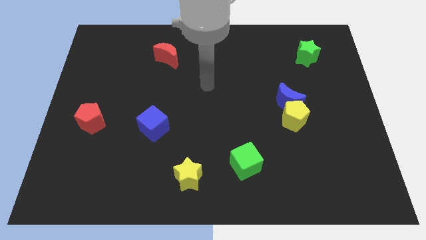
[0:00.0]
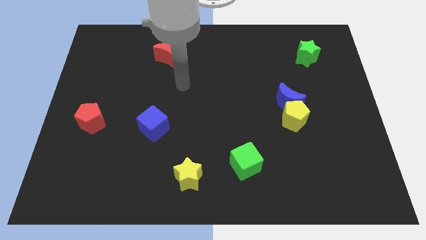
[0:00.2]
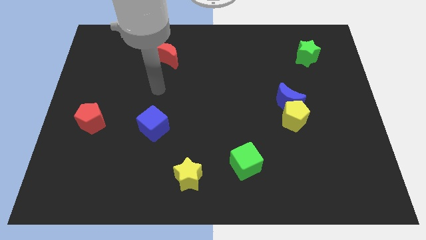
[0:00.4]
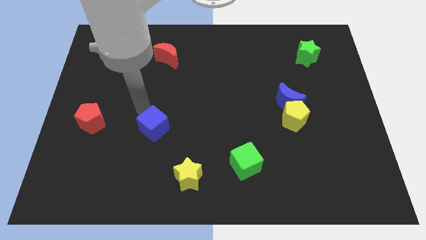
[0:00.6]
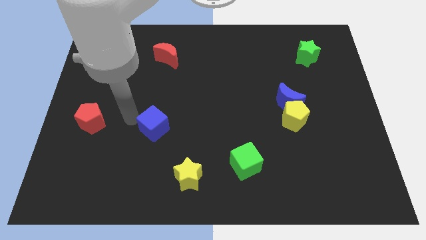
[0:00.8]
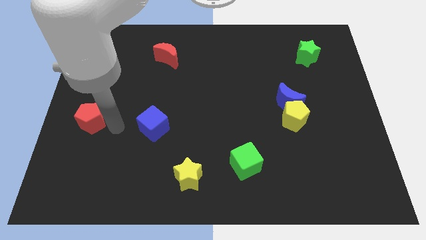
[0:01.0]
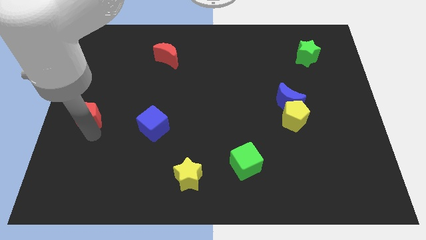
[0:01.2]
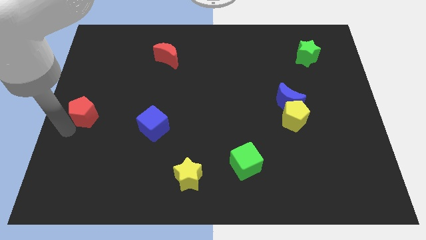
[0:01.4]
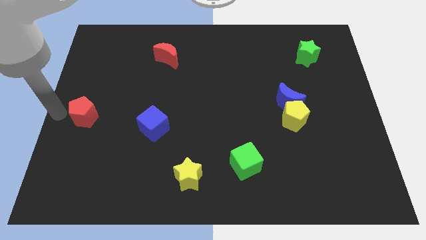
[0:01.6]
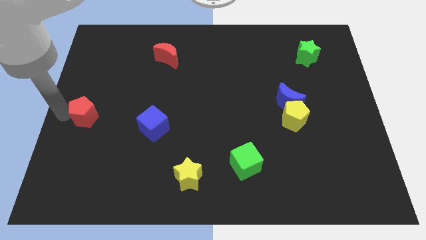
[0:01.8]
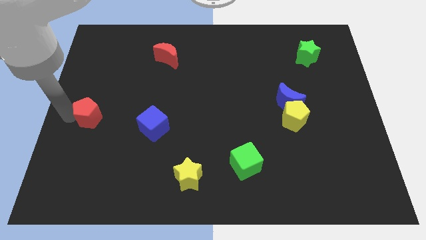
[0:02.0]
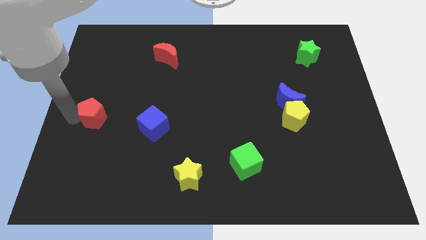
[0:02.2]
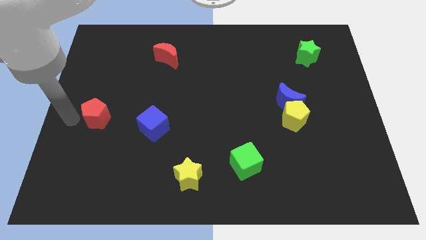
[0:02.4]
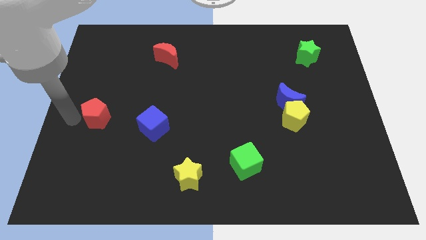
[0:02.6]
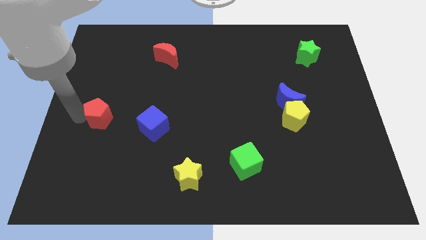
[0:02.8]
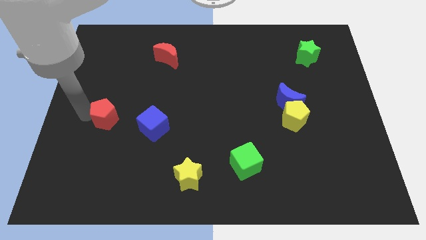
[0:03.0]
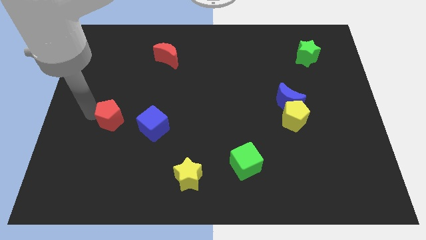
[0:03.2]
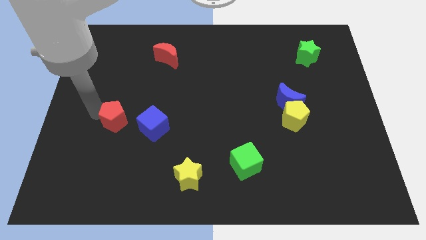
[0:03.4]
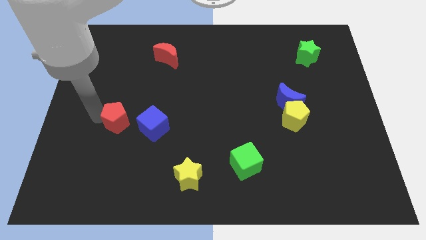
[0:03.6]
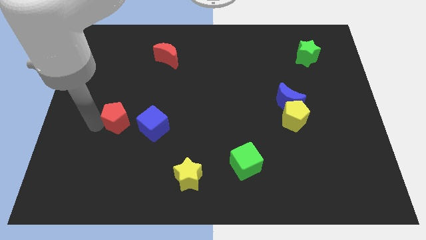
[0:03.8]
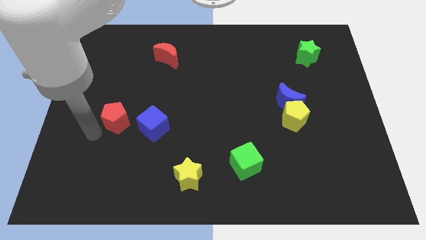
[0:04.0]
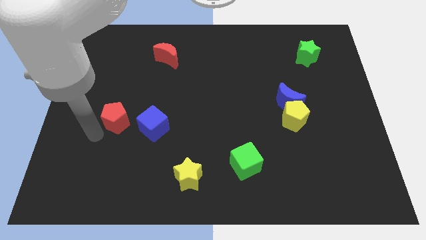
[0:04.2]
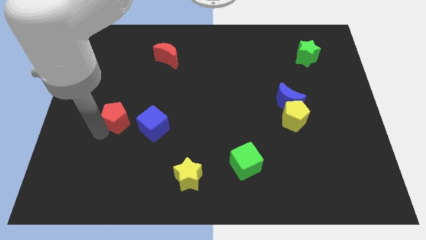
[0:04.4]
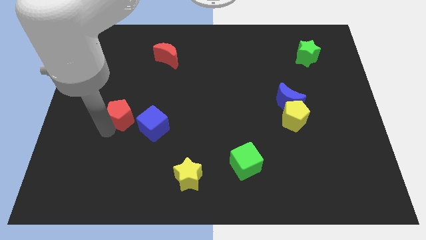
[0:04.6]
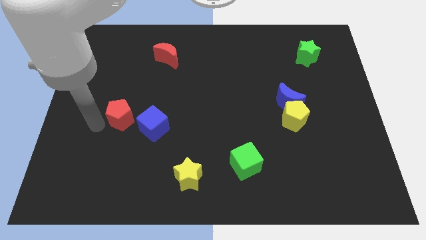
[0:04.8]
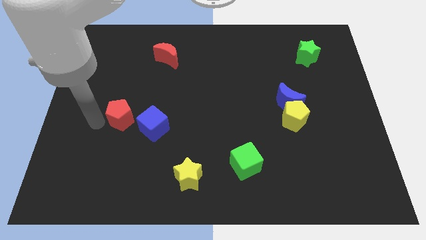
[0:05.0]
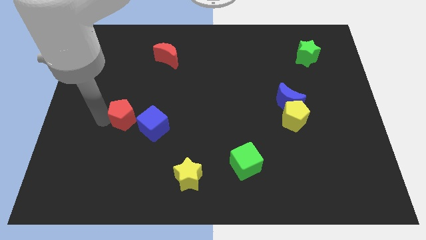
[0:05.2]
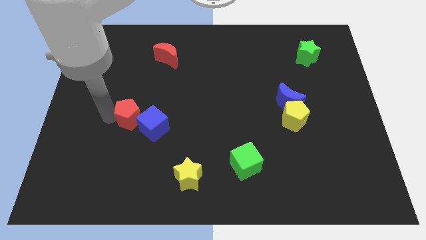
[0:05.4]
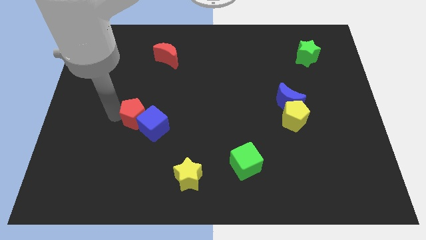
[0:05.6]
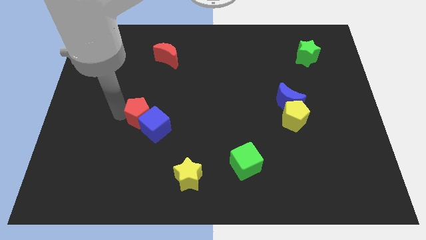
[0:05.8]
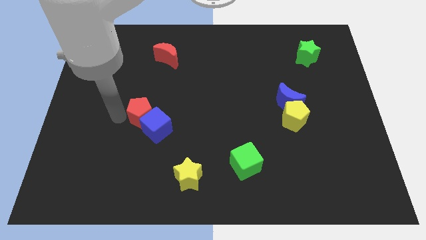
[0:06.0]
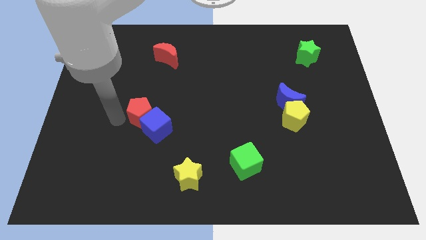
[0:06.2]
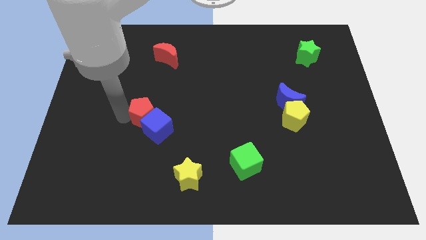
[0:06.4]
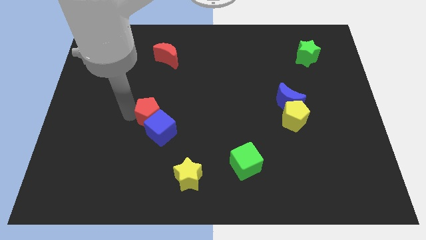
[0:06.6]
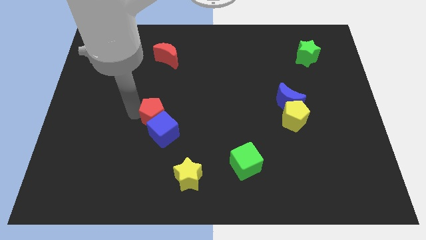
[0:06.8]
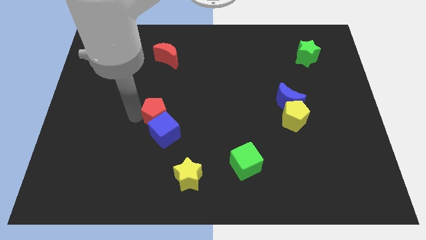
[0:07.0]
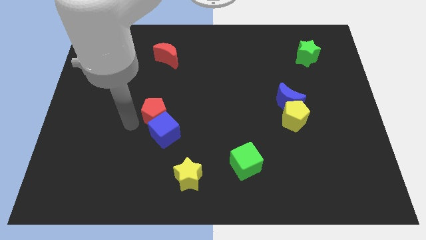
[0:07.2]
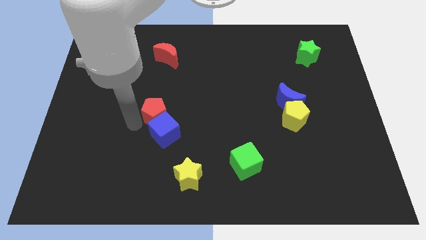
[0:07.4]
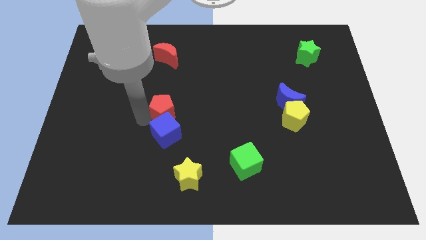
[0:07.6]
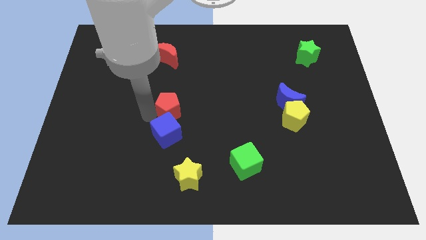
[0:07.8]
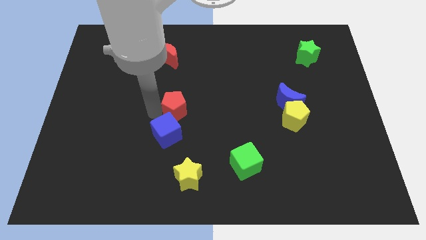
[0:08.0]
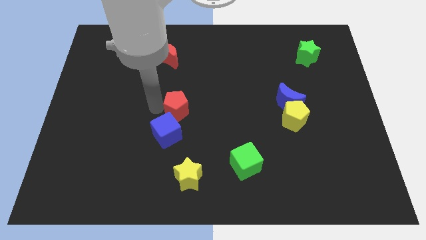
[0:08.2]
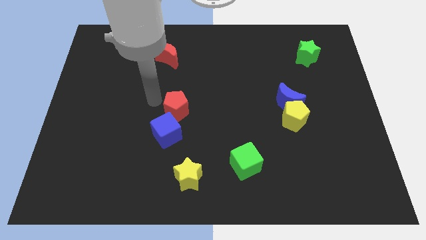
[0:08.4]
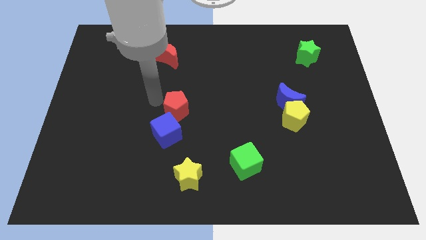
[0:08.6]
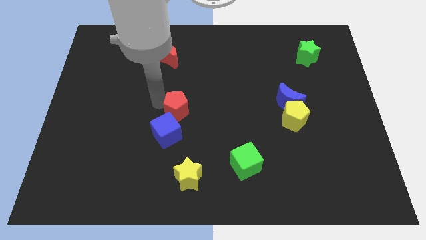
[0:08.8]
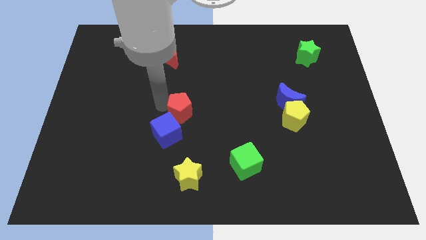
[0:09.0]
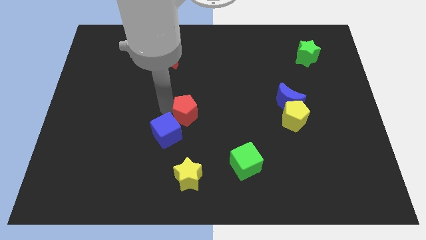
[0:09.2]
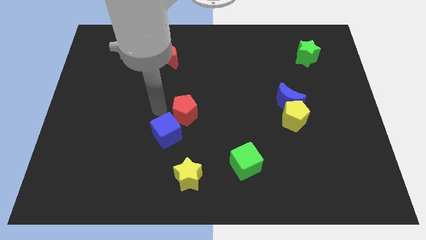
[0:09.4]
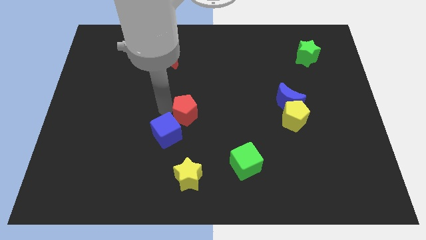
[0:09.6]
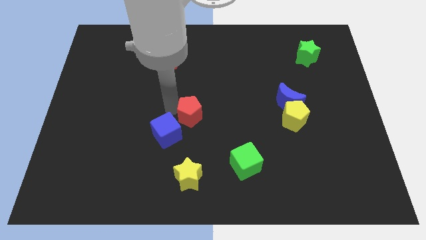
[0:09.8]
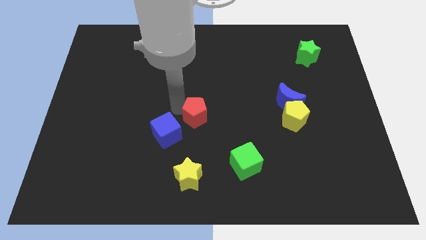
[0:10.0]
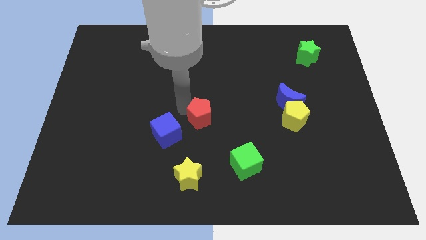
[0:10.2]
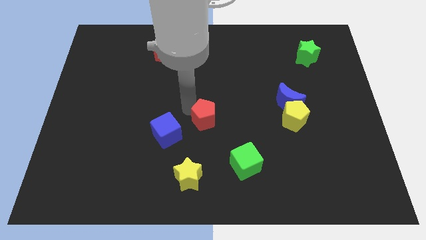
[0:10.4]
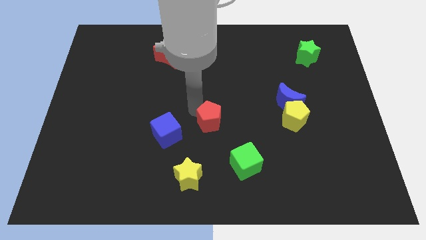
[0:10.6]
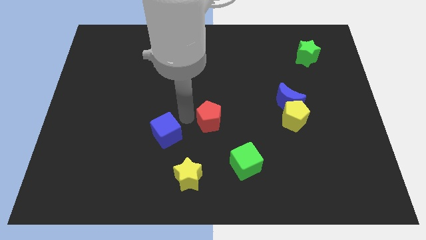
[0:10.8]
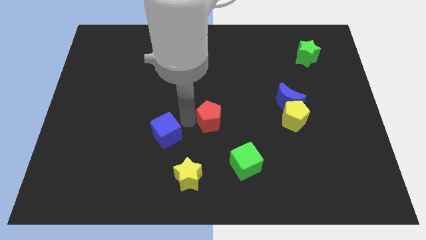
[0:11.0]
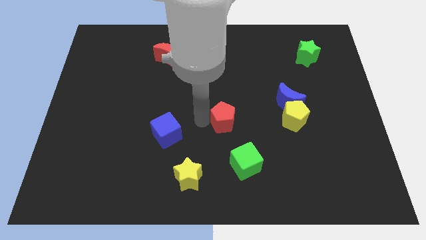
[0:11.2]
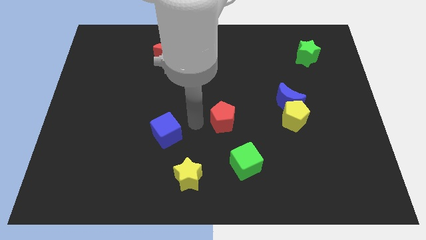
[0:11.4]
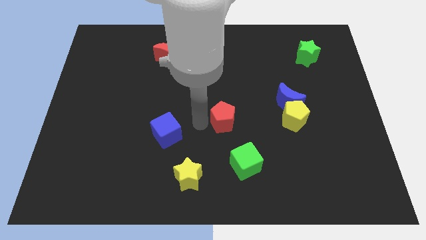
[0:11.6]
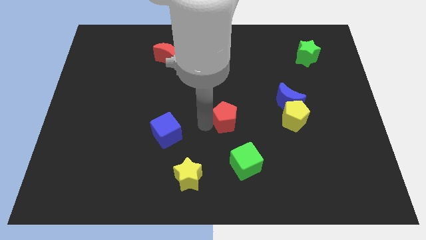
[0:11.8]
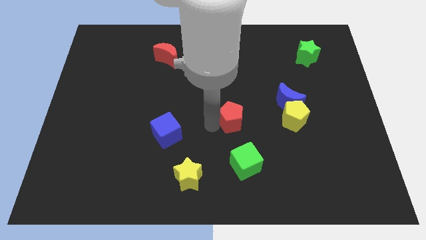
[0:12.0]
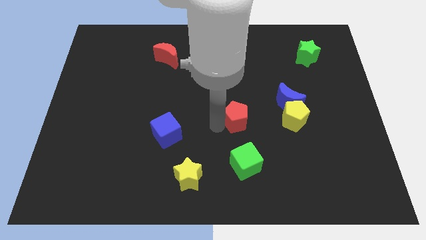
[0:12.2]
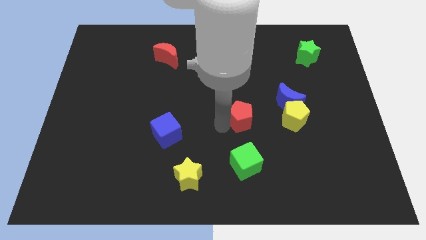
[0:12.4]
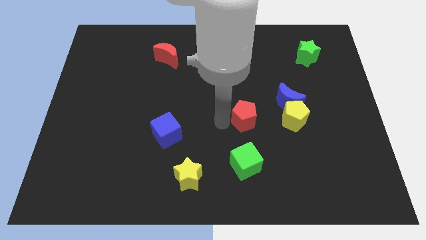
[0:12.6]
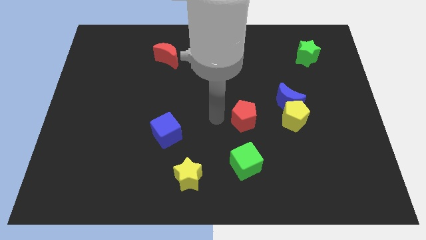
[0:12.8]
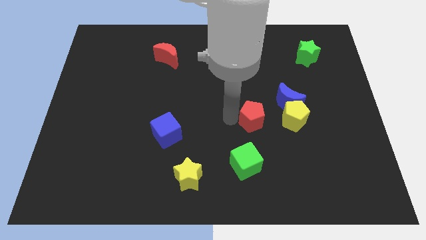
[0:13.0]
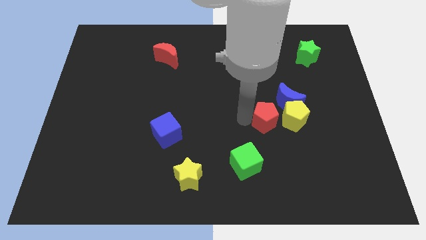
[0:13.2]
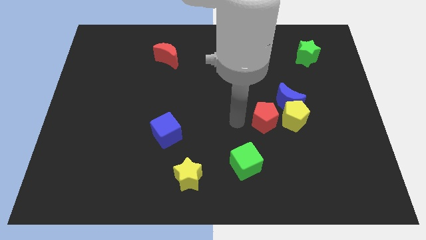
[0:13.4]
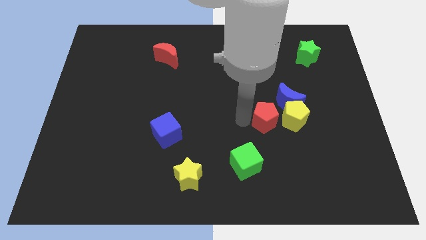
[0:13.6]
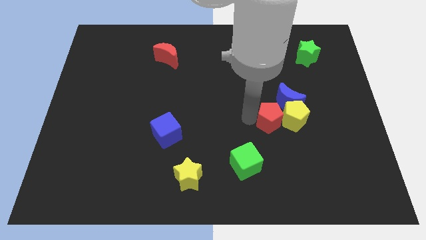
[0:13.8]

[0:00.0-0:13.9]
push the red pentagon towards the yellow pentagon
